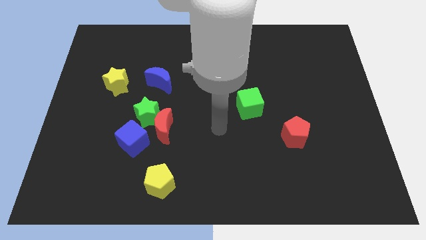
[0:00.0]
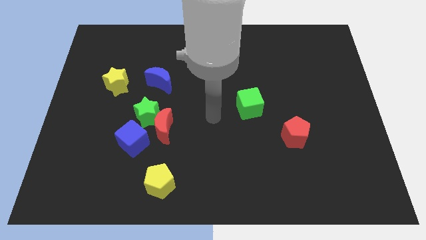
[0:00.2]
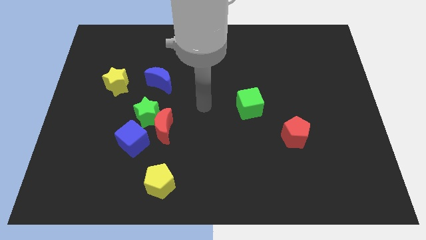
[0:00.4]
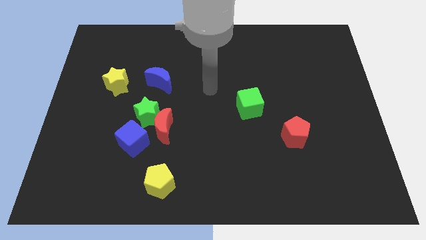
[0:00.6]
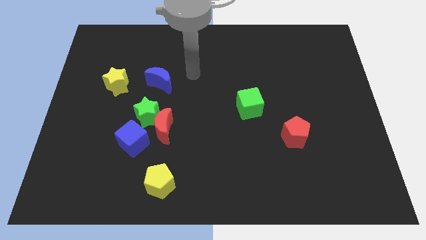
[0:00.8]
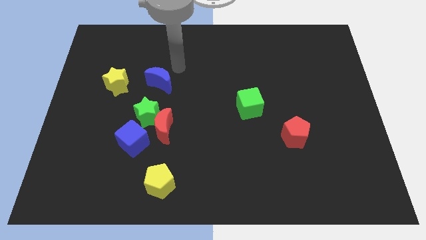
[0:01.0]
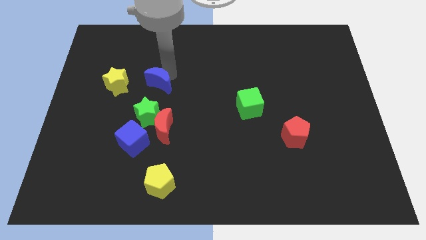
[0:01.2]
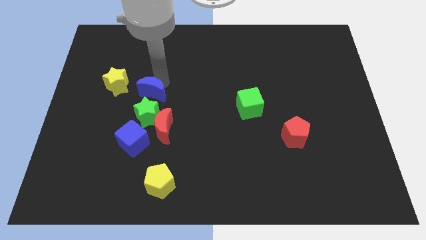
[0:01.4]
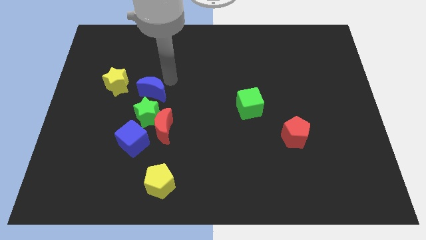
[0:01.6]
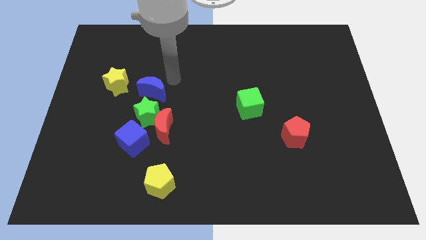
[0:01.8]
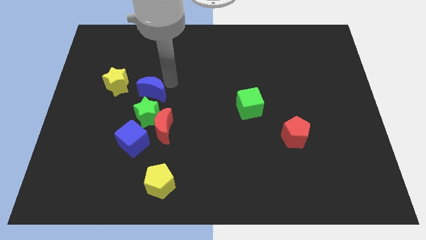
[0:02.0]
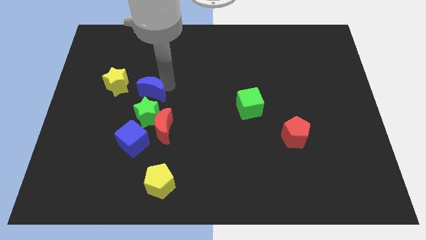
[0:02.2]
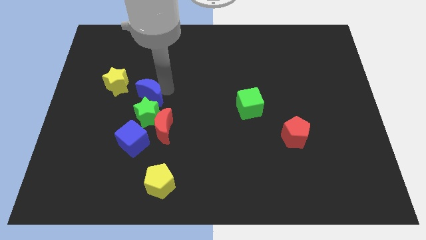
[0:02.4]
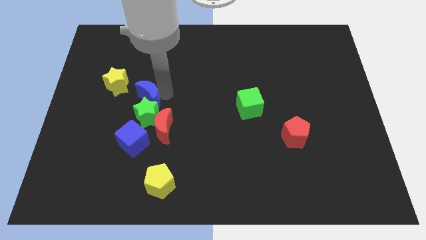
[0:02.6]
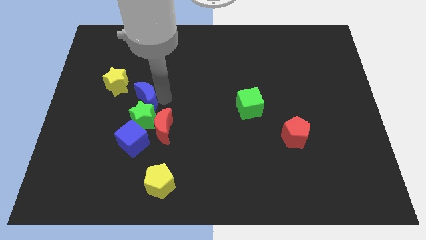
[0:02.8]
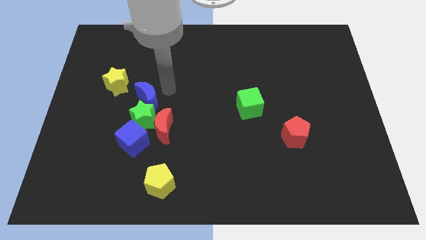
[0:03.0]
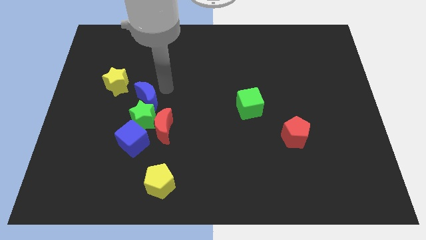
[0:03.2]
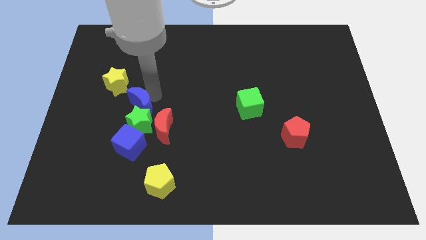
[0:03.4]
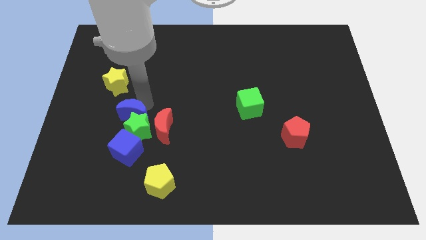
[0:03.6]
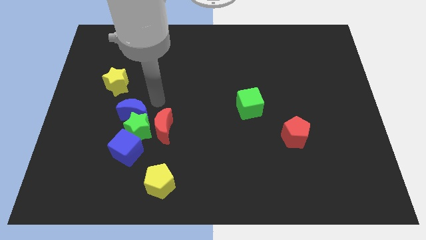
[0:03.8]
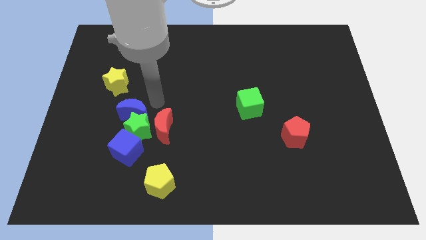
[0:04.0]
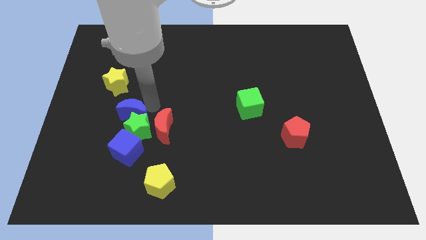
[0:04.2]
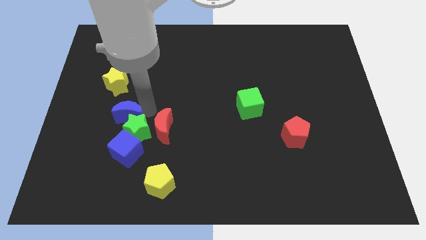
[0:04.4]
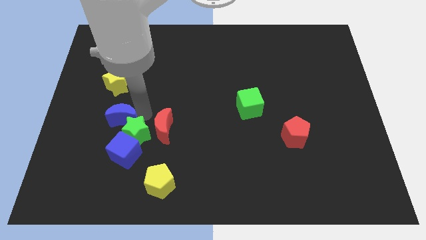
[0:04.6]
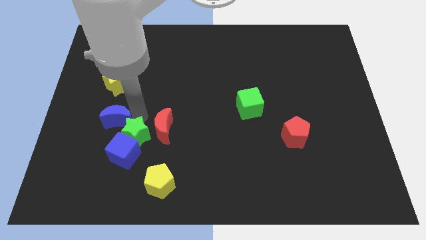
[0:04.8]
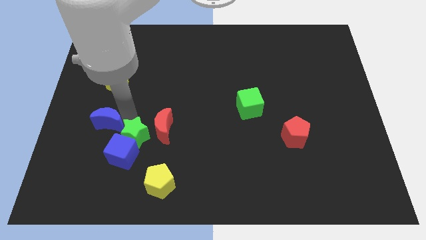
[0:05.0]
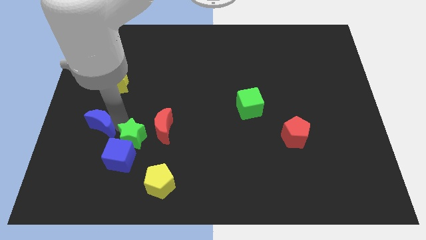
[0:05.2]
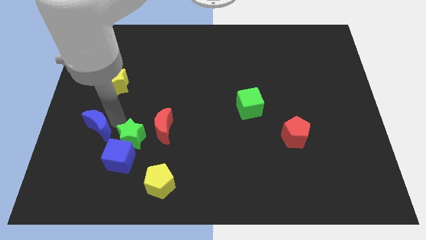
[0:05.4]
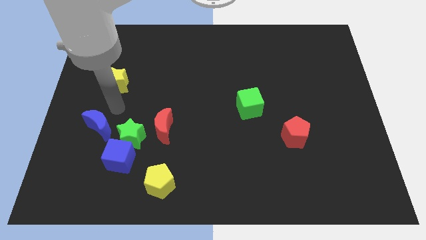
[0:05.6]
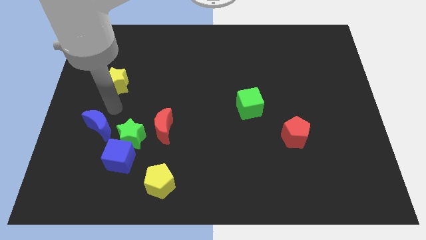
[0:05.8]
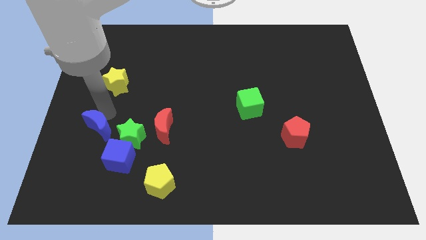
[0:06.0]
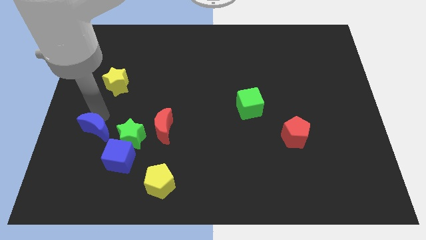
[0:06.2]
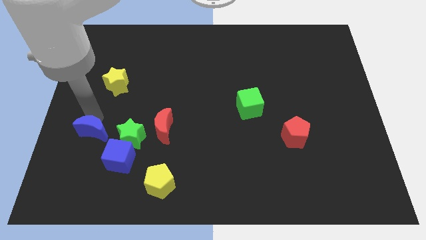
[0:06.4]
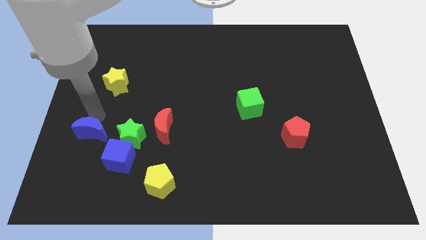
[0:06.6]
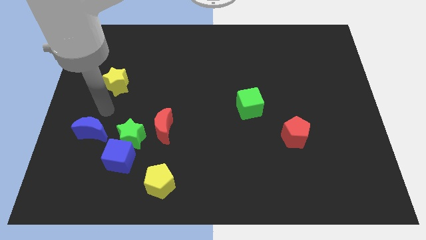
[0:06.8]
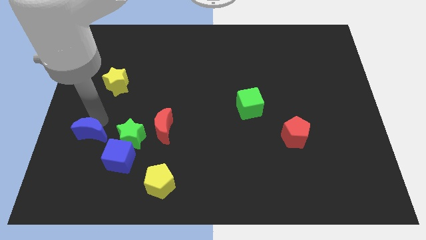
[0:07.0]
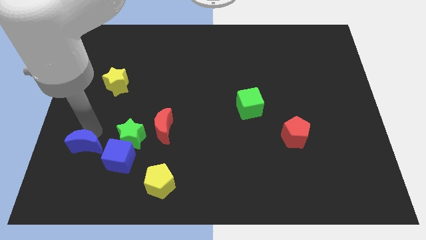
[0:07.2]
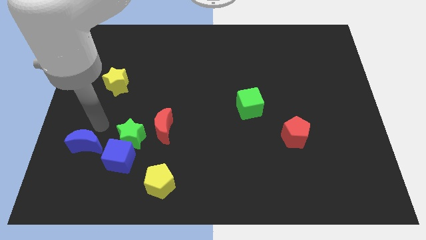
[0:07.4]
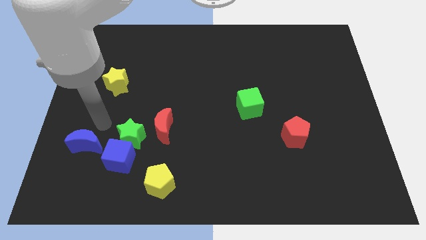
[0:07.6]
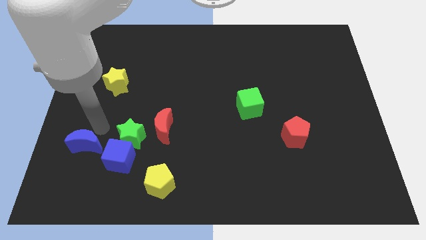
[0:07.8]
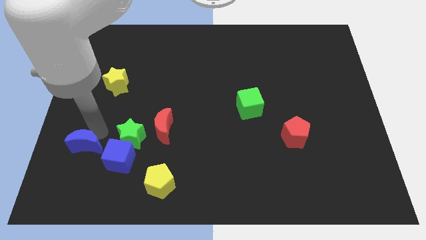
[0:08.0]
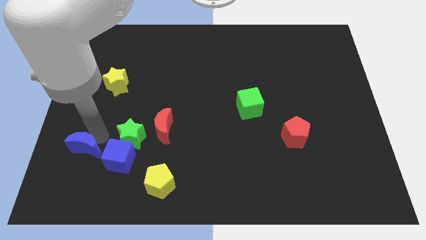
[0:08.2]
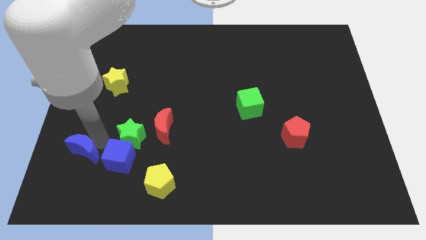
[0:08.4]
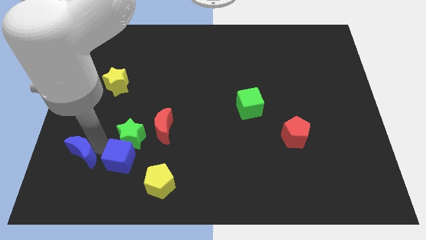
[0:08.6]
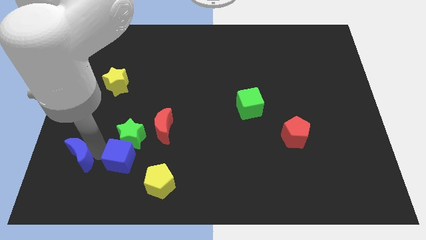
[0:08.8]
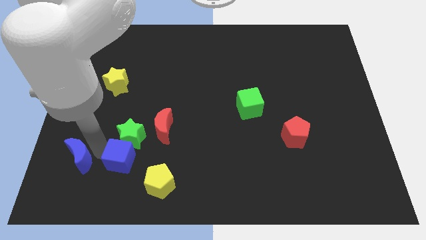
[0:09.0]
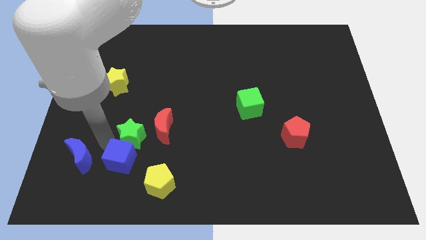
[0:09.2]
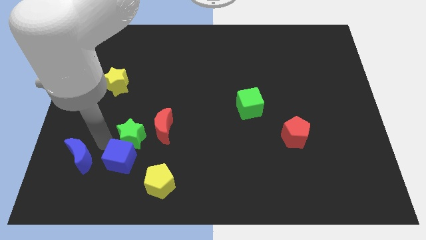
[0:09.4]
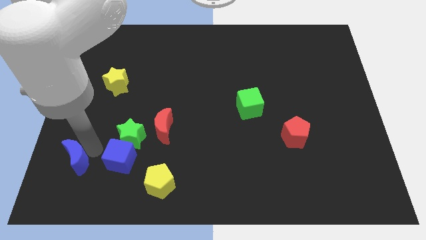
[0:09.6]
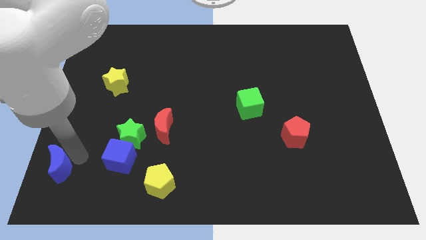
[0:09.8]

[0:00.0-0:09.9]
move the blue moon to the lower left corner

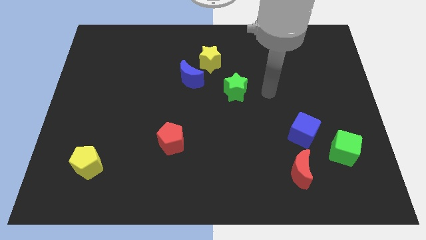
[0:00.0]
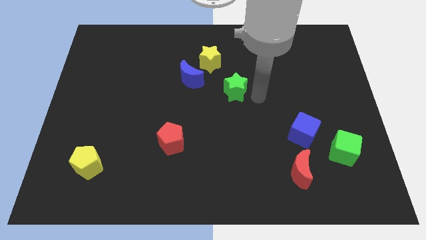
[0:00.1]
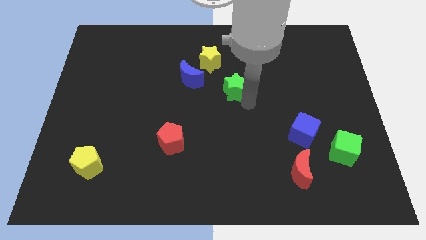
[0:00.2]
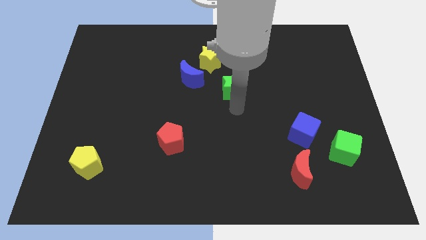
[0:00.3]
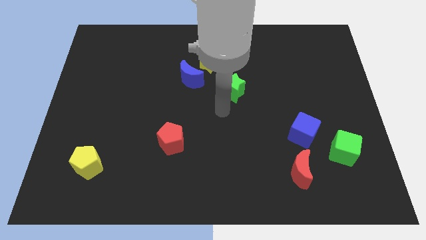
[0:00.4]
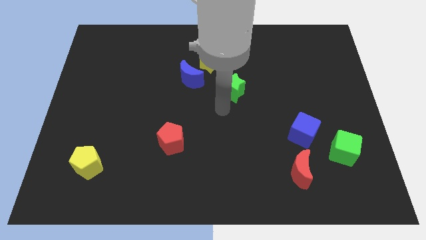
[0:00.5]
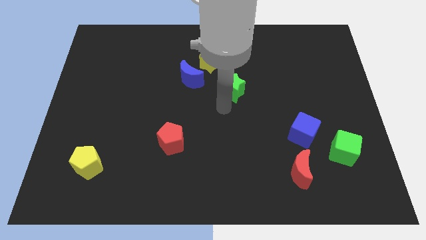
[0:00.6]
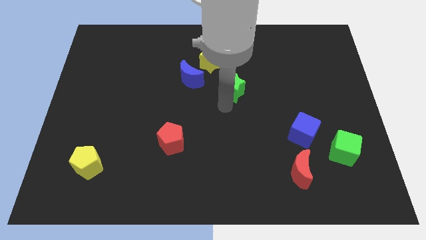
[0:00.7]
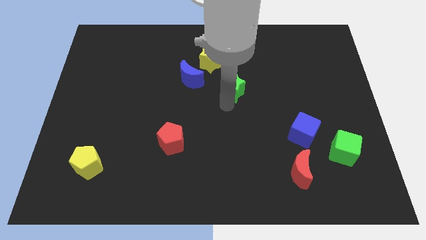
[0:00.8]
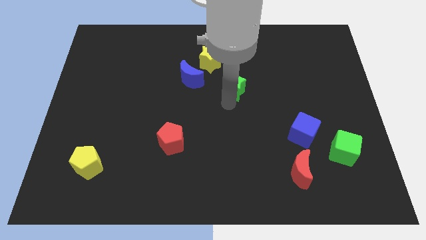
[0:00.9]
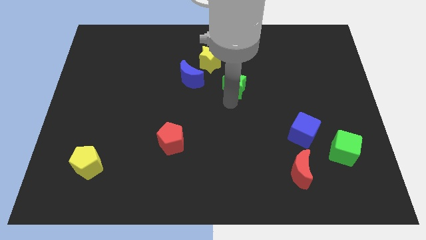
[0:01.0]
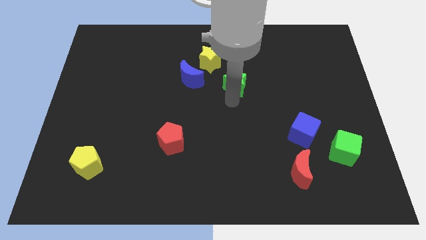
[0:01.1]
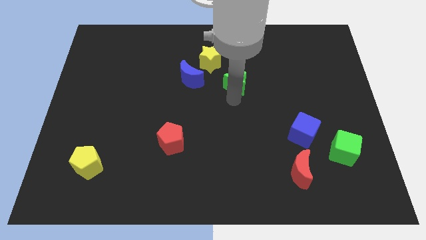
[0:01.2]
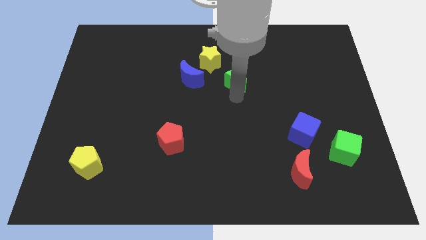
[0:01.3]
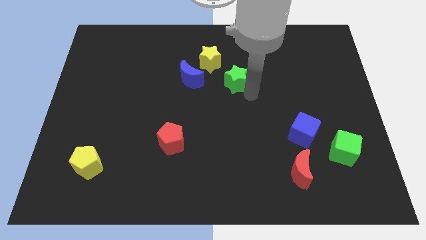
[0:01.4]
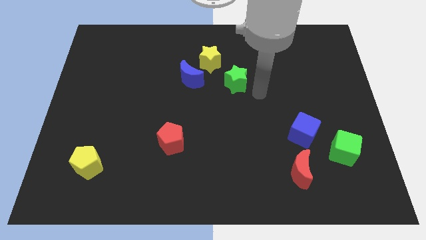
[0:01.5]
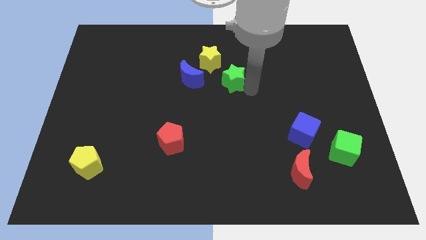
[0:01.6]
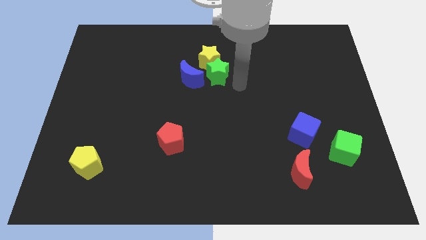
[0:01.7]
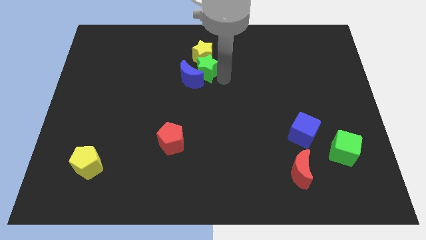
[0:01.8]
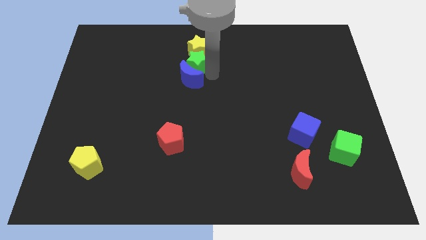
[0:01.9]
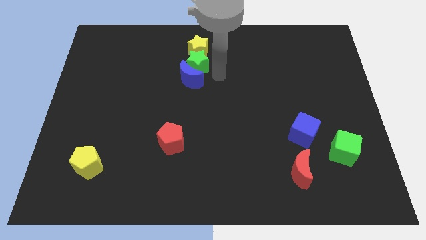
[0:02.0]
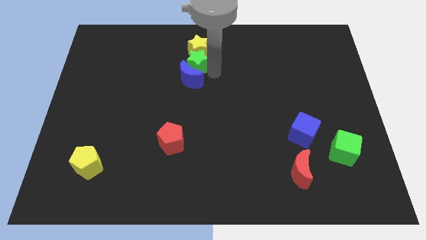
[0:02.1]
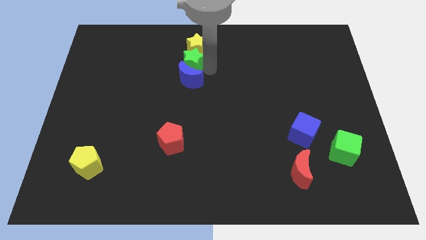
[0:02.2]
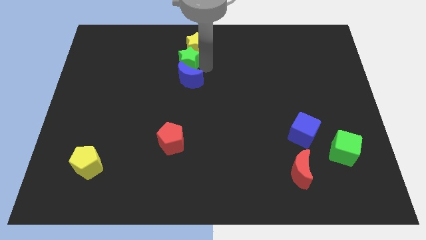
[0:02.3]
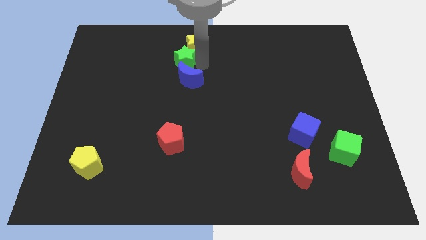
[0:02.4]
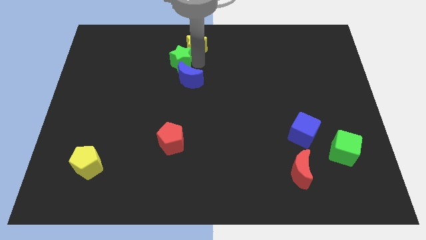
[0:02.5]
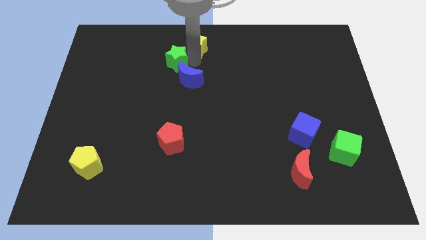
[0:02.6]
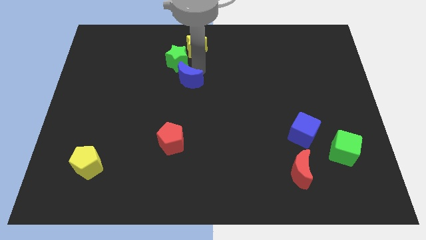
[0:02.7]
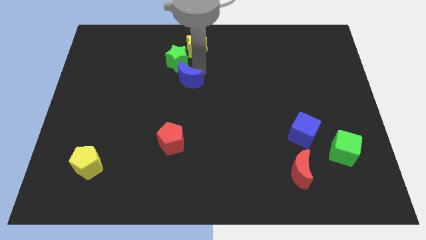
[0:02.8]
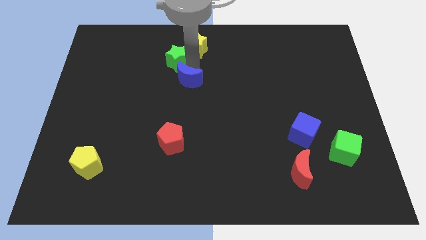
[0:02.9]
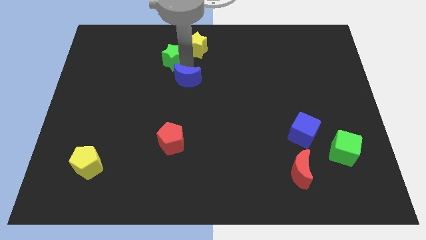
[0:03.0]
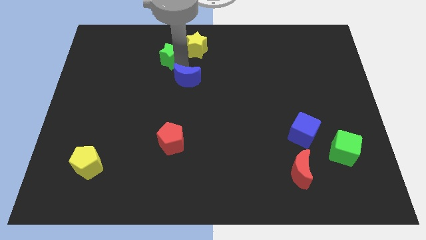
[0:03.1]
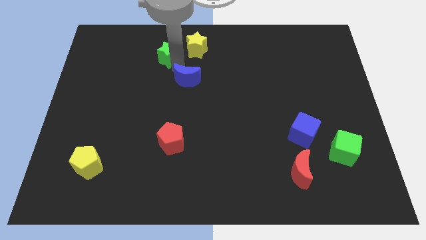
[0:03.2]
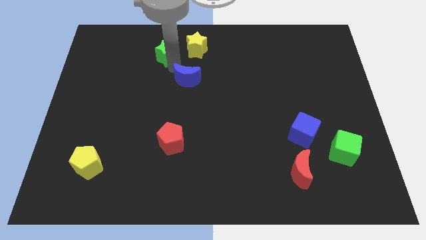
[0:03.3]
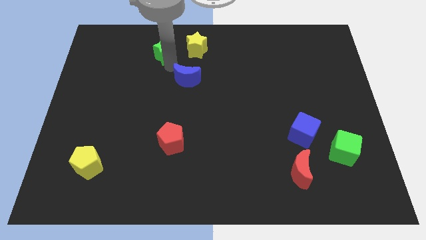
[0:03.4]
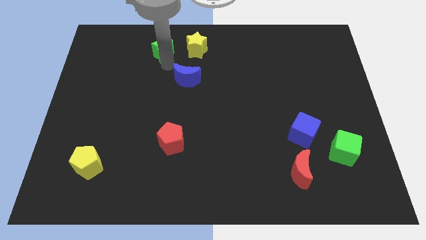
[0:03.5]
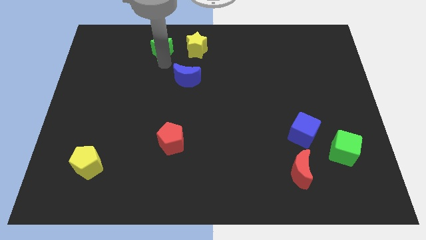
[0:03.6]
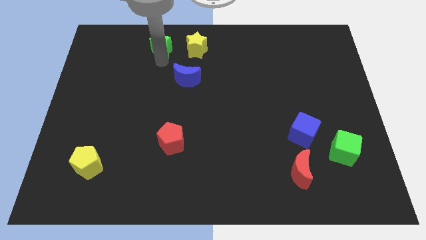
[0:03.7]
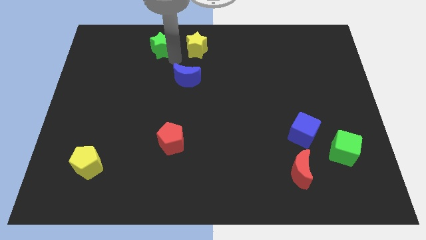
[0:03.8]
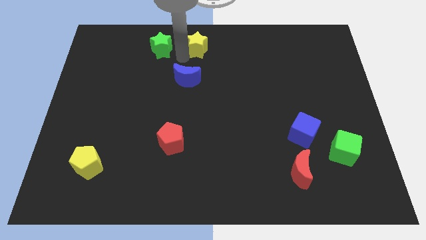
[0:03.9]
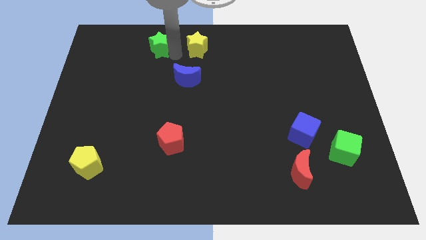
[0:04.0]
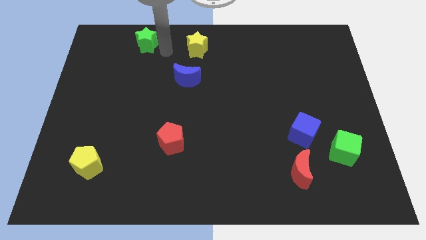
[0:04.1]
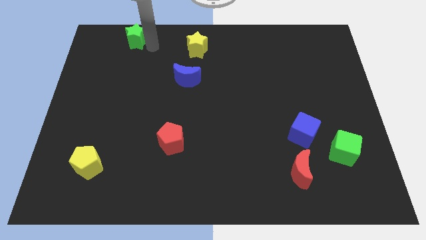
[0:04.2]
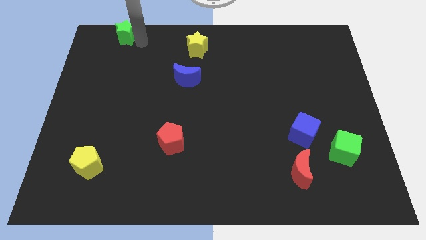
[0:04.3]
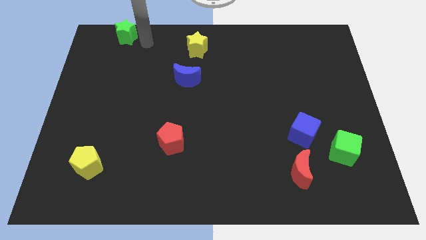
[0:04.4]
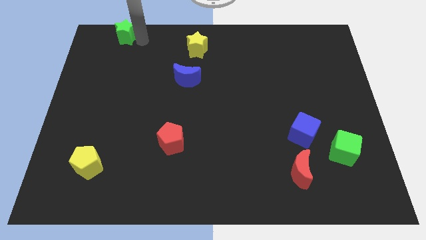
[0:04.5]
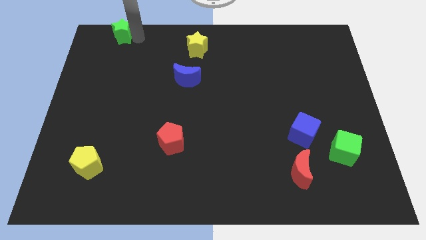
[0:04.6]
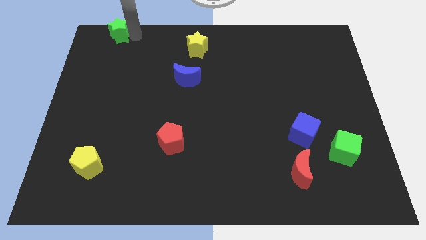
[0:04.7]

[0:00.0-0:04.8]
slide the green star to the top left
